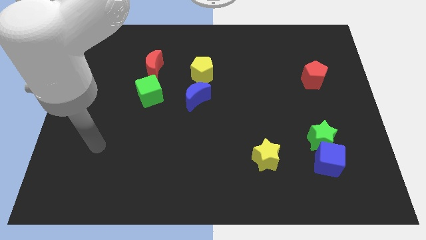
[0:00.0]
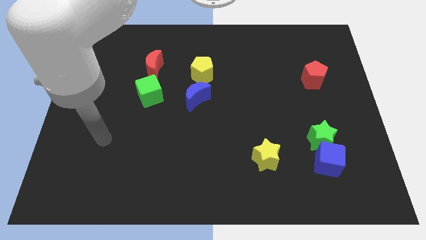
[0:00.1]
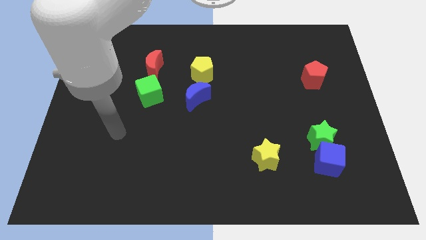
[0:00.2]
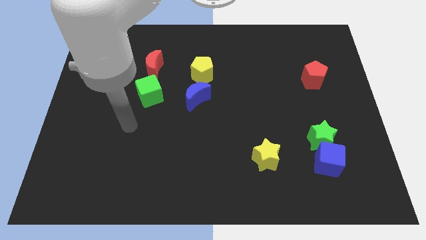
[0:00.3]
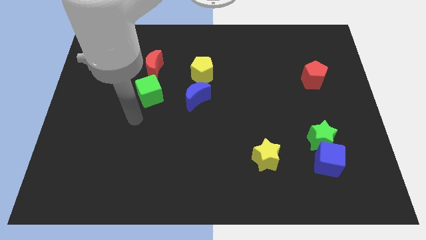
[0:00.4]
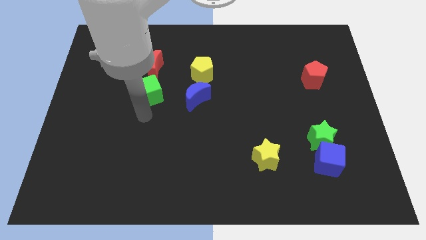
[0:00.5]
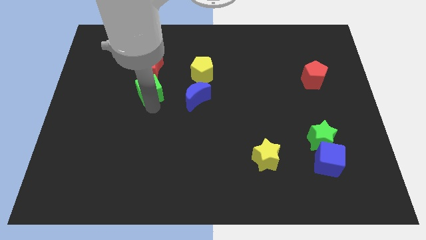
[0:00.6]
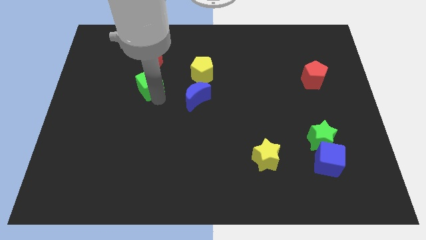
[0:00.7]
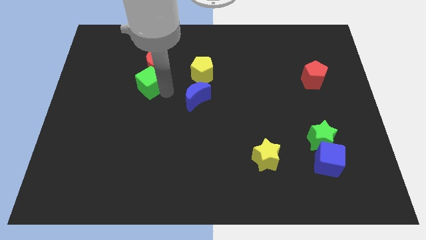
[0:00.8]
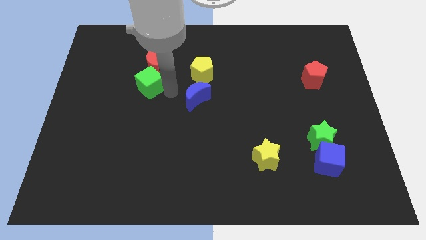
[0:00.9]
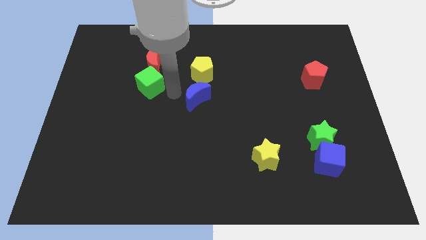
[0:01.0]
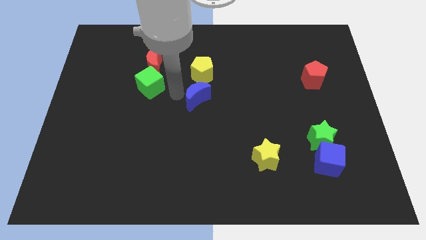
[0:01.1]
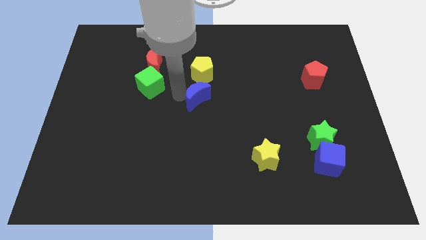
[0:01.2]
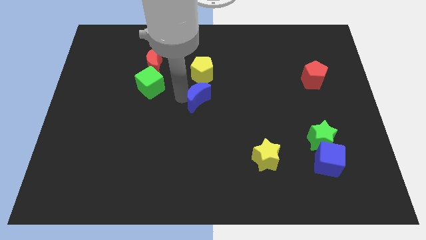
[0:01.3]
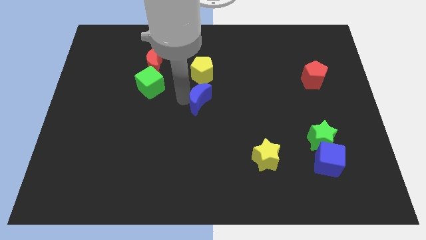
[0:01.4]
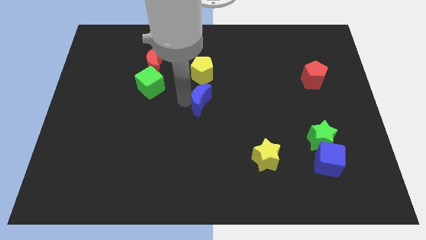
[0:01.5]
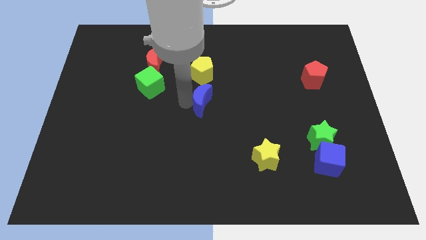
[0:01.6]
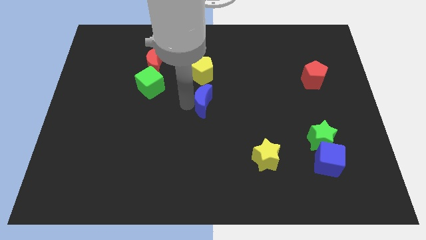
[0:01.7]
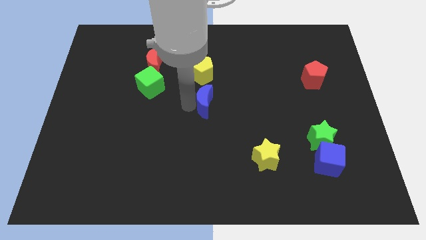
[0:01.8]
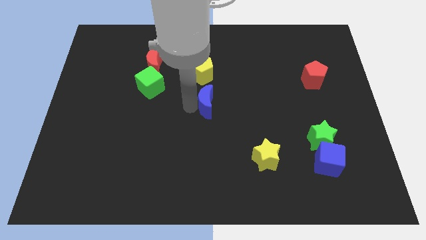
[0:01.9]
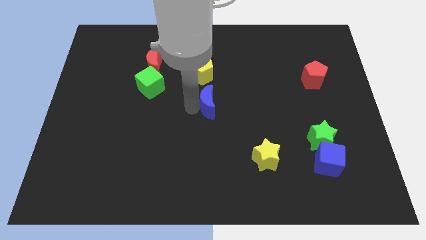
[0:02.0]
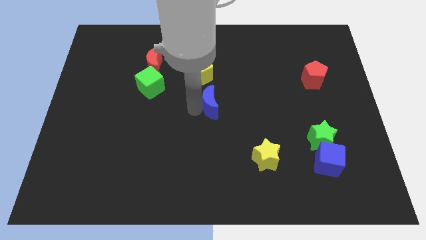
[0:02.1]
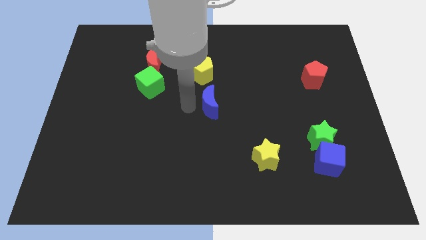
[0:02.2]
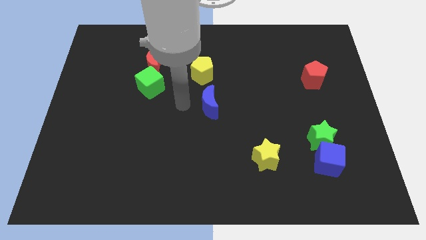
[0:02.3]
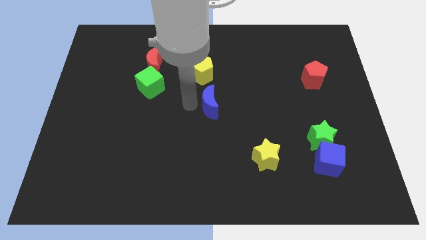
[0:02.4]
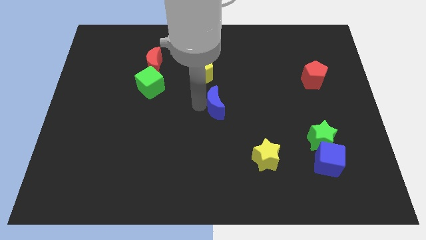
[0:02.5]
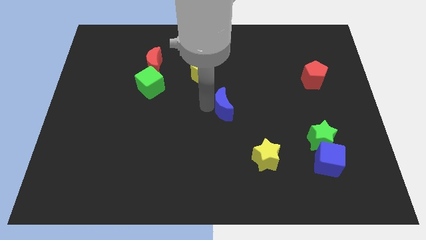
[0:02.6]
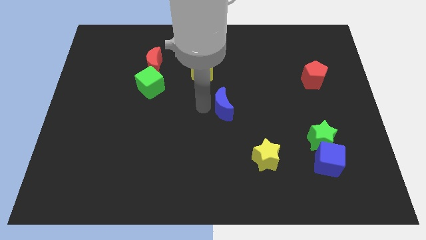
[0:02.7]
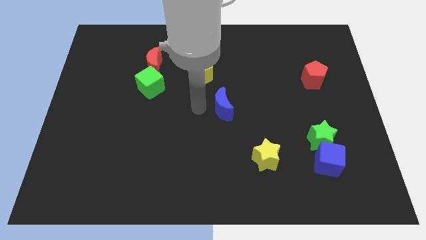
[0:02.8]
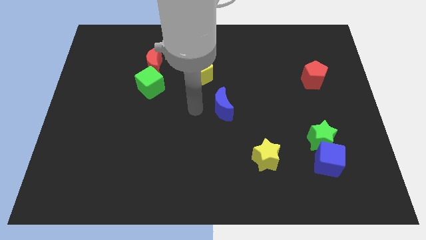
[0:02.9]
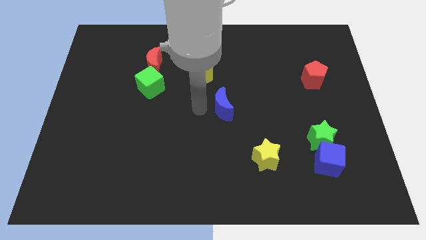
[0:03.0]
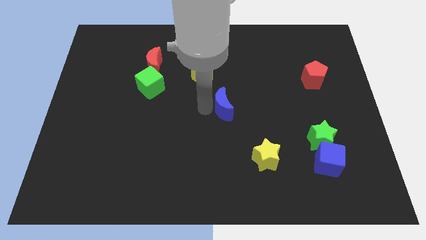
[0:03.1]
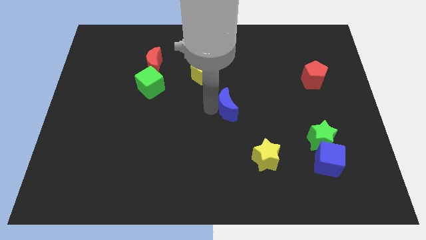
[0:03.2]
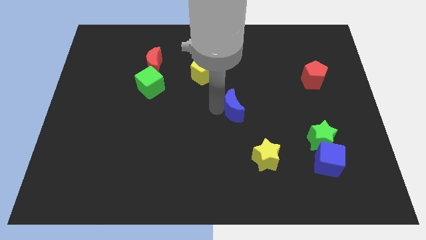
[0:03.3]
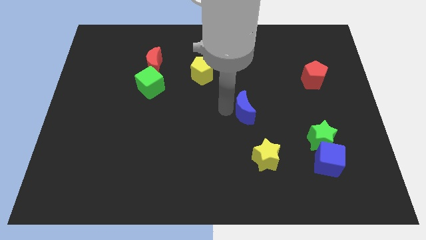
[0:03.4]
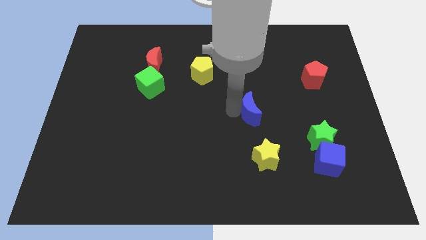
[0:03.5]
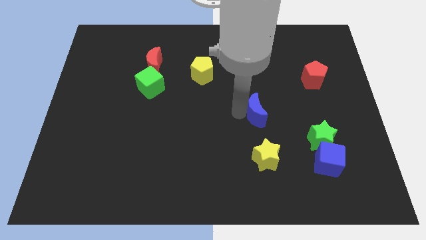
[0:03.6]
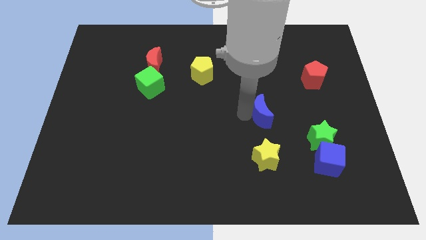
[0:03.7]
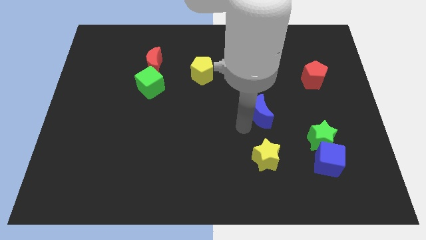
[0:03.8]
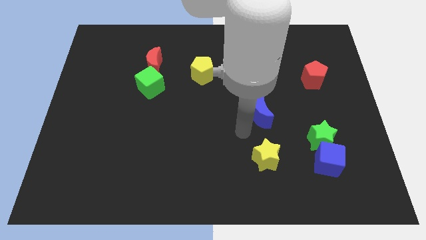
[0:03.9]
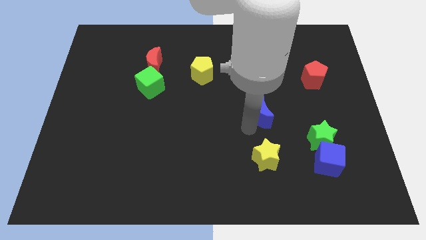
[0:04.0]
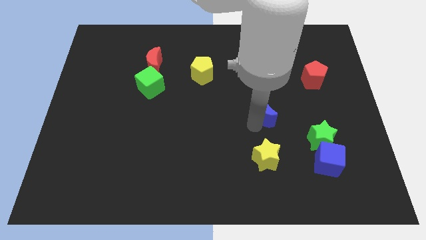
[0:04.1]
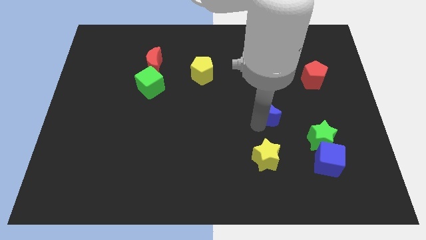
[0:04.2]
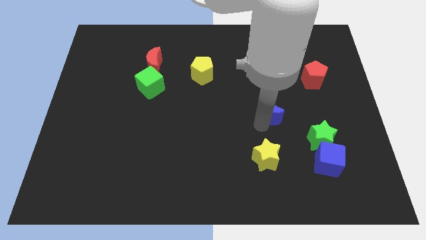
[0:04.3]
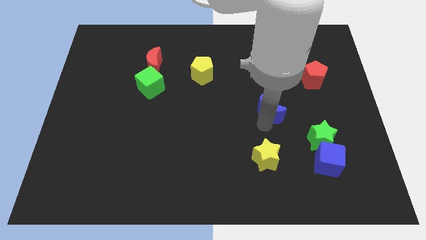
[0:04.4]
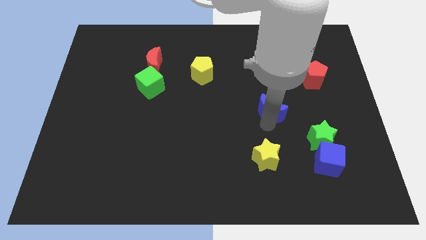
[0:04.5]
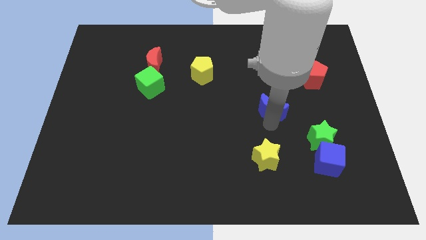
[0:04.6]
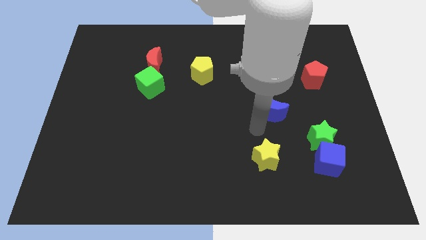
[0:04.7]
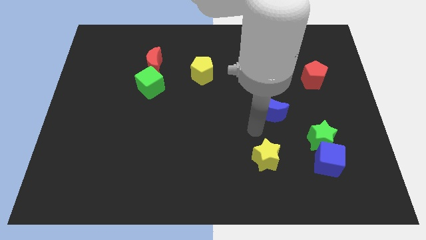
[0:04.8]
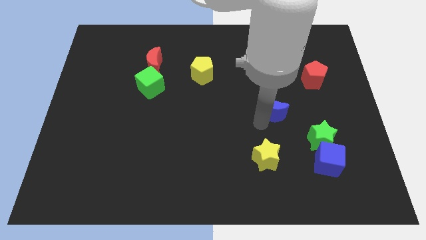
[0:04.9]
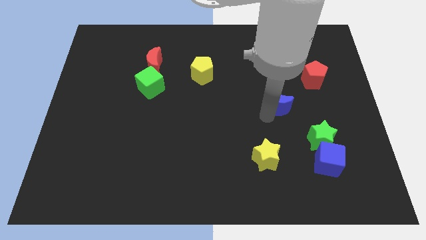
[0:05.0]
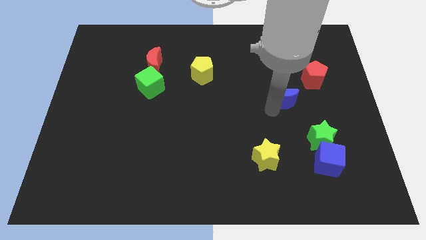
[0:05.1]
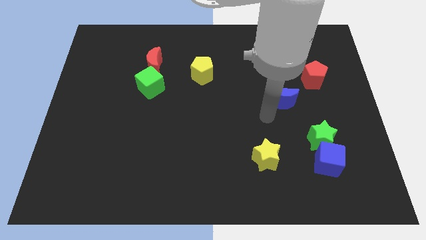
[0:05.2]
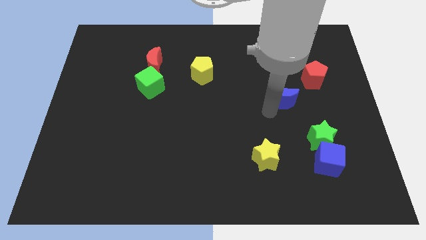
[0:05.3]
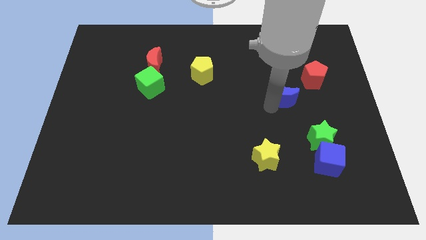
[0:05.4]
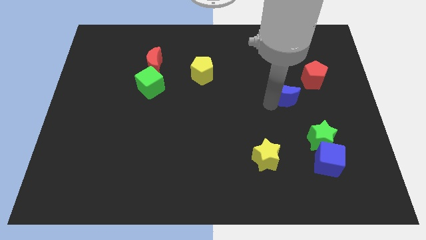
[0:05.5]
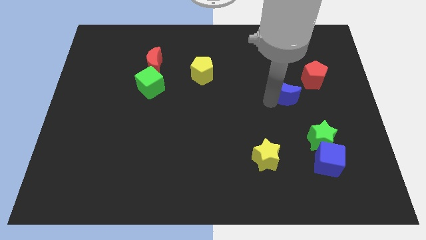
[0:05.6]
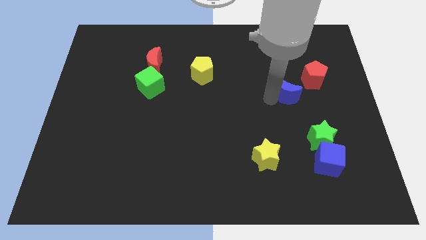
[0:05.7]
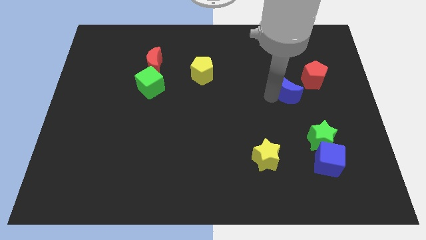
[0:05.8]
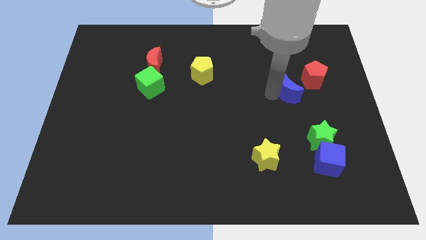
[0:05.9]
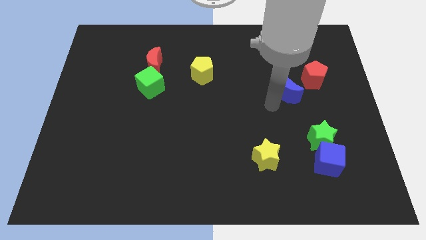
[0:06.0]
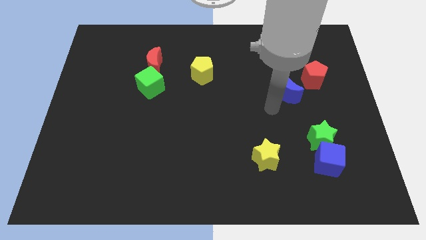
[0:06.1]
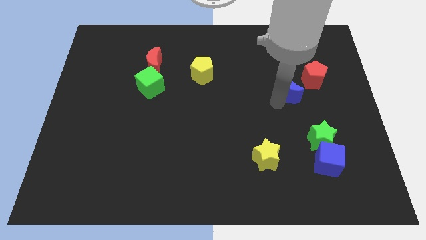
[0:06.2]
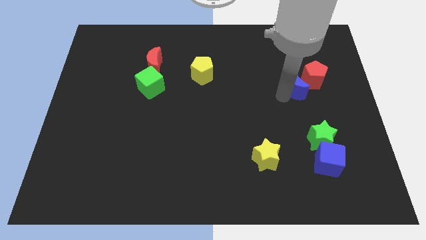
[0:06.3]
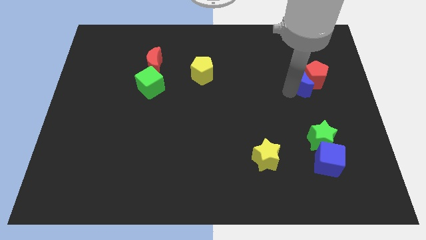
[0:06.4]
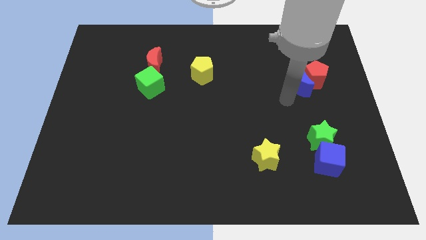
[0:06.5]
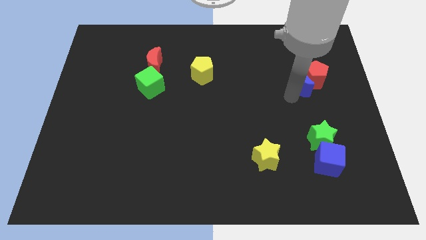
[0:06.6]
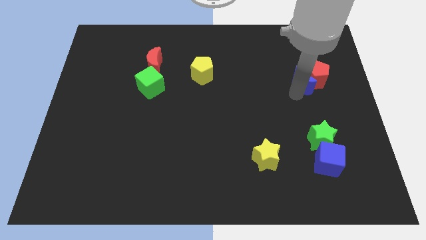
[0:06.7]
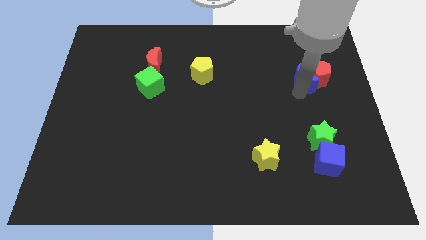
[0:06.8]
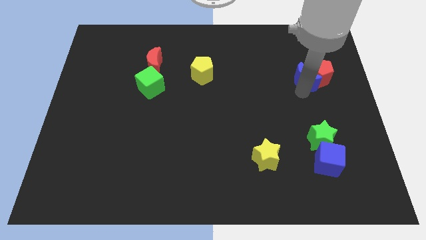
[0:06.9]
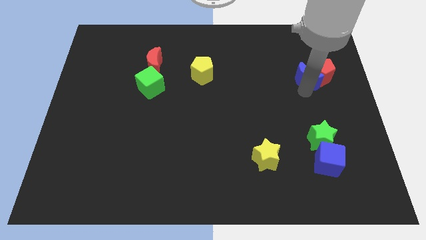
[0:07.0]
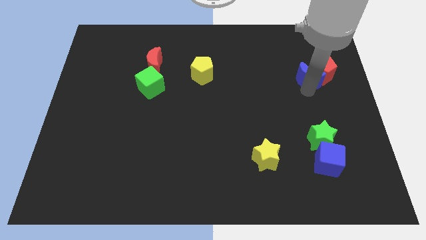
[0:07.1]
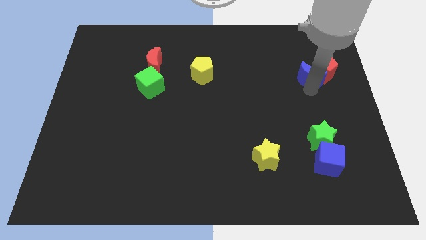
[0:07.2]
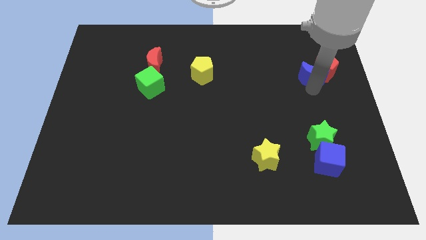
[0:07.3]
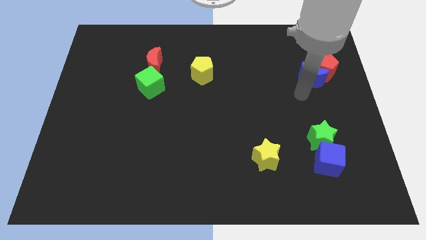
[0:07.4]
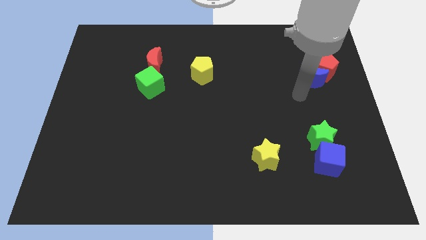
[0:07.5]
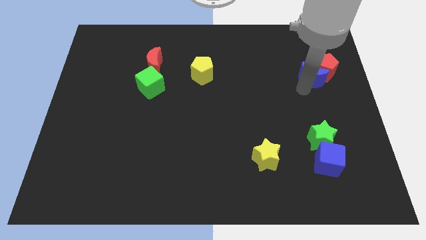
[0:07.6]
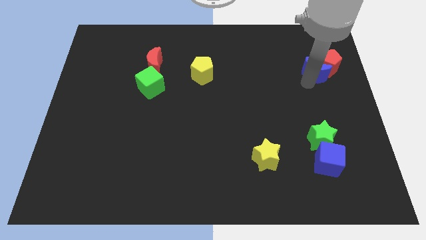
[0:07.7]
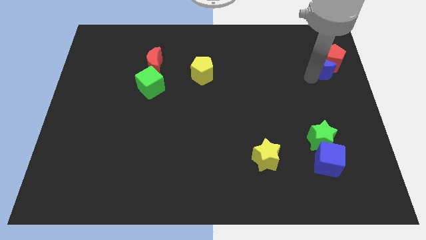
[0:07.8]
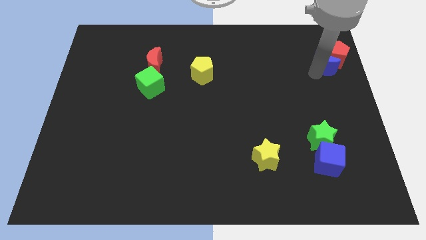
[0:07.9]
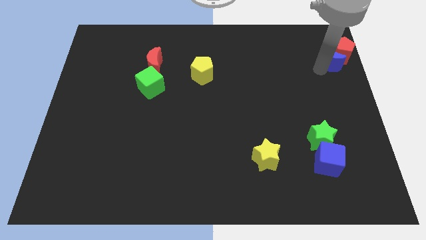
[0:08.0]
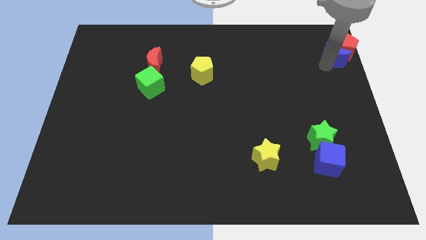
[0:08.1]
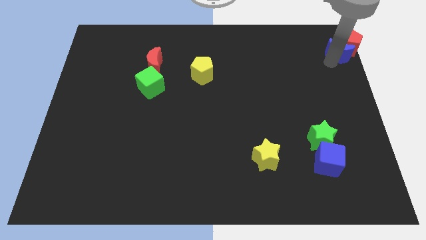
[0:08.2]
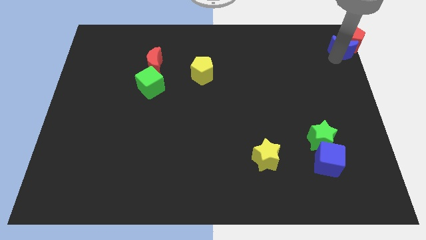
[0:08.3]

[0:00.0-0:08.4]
move the blue moon to the top right corner
